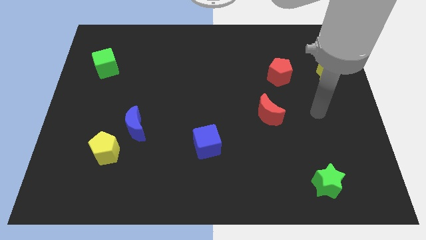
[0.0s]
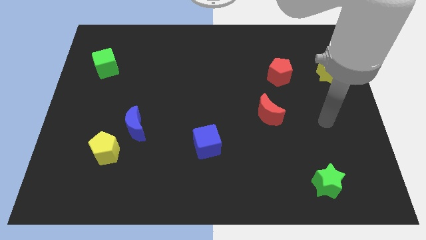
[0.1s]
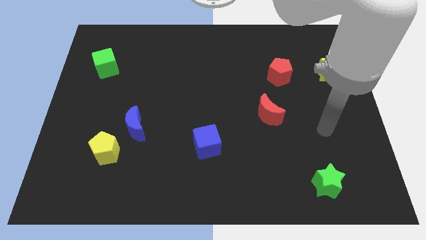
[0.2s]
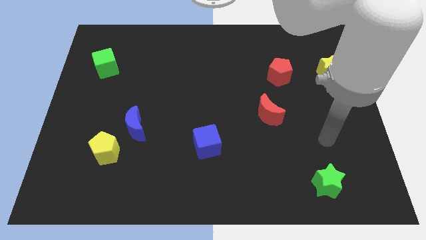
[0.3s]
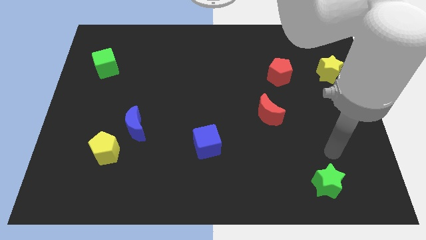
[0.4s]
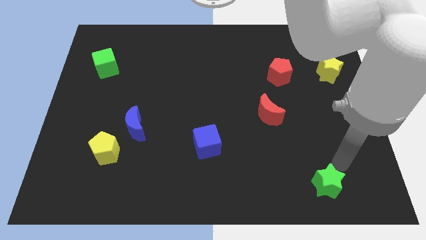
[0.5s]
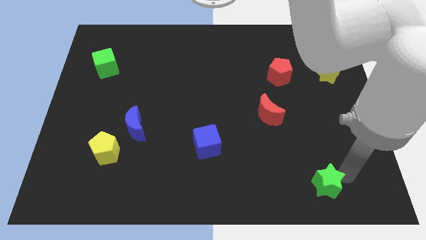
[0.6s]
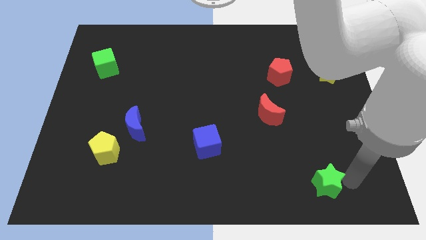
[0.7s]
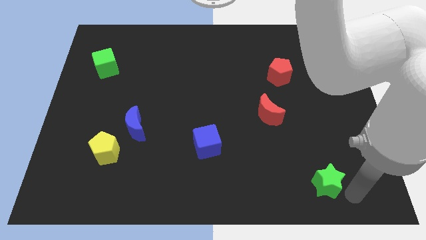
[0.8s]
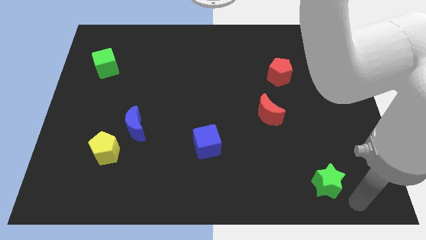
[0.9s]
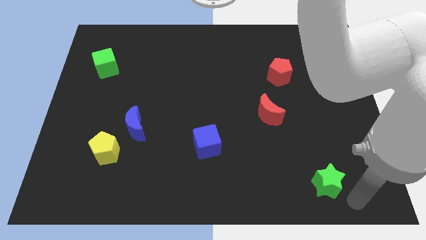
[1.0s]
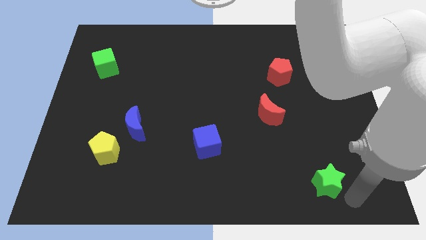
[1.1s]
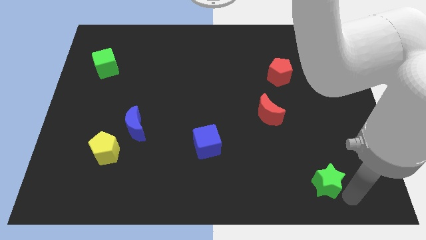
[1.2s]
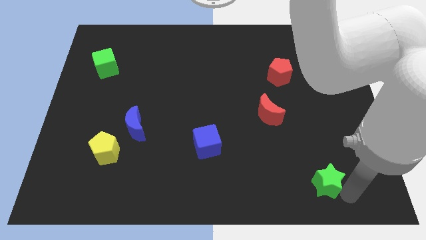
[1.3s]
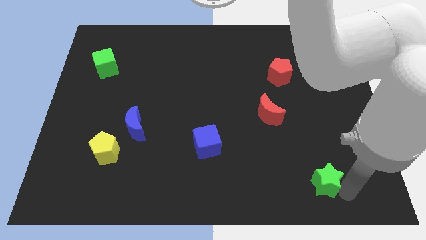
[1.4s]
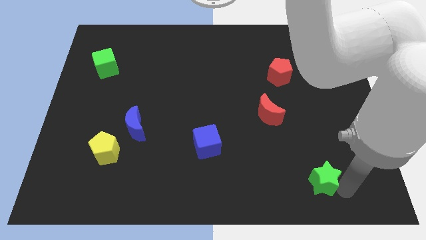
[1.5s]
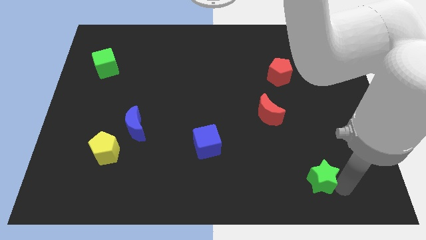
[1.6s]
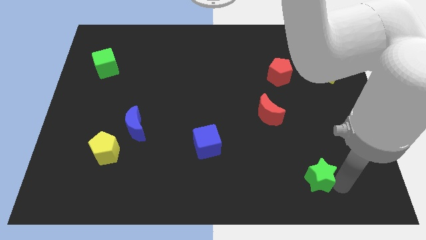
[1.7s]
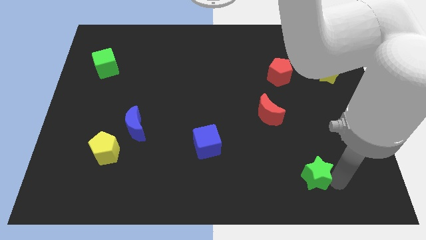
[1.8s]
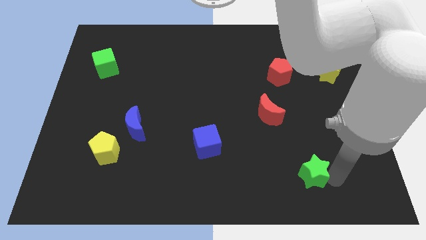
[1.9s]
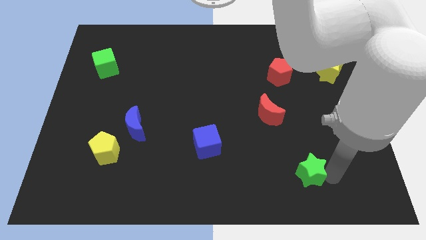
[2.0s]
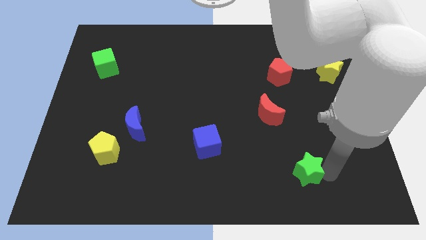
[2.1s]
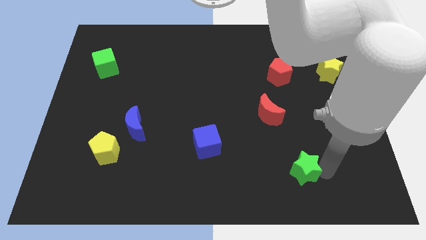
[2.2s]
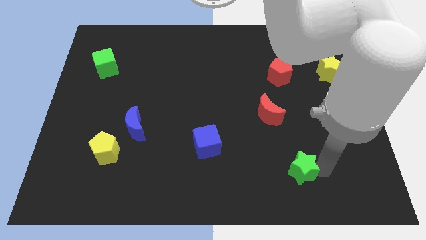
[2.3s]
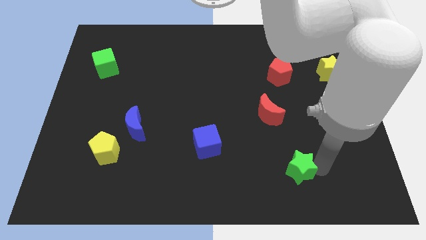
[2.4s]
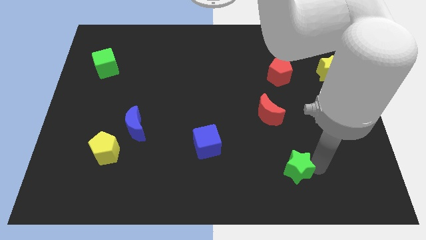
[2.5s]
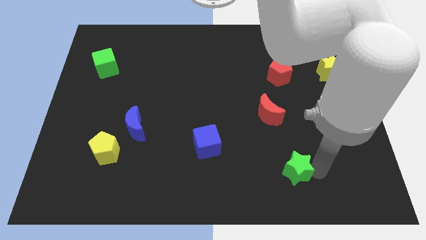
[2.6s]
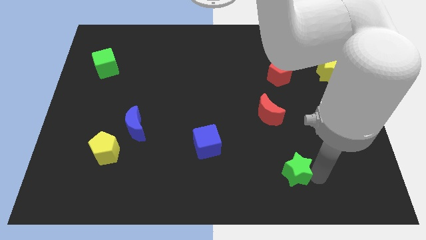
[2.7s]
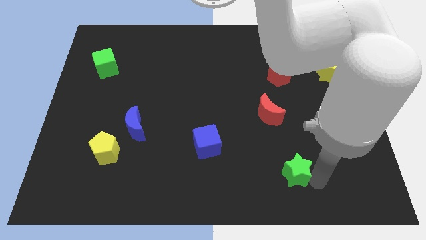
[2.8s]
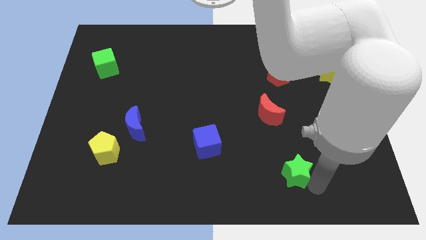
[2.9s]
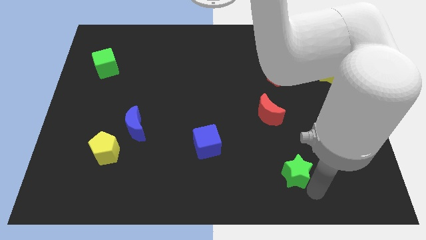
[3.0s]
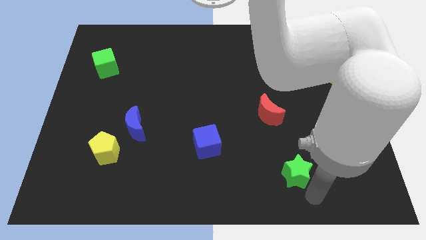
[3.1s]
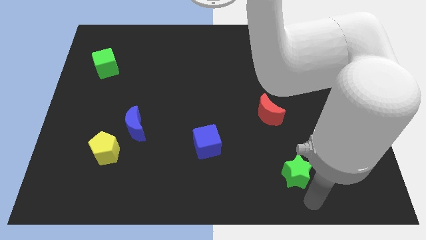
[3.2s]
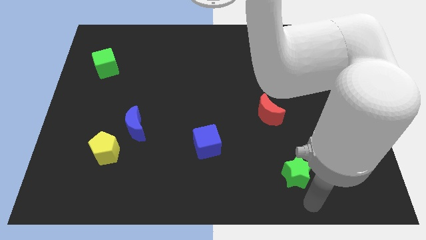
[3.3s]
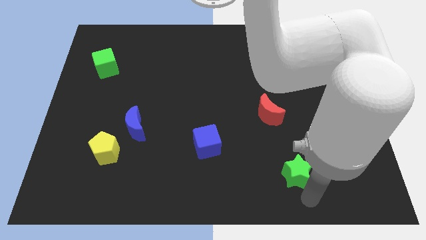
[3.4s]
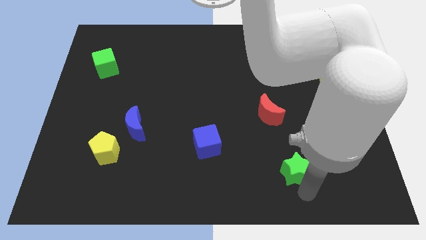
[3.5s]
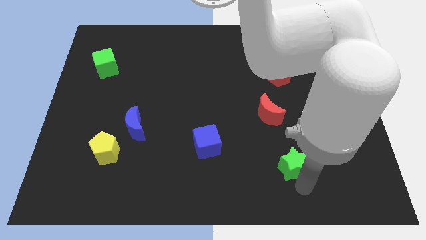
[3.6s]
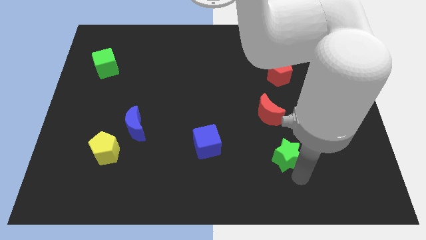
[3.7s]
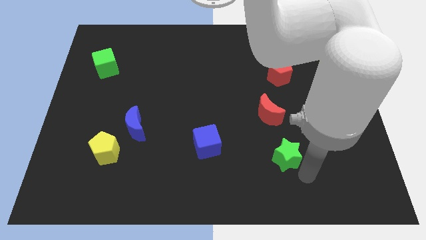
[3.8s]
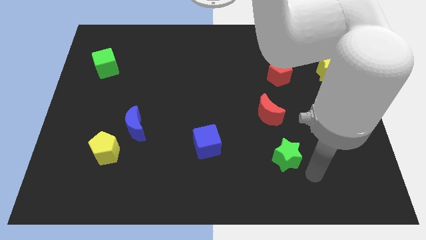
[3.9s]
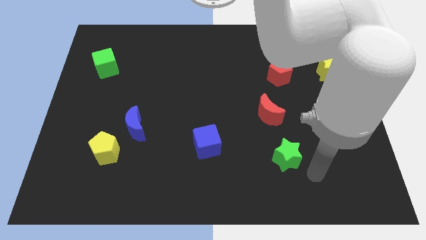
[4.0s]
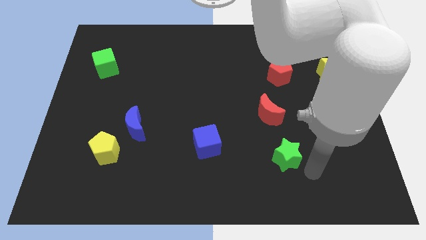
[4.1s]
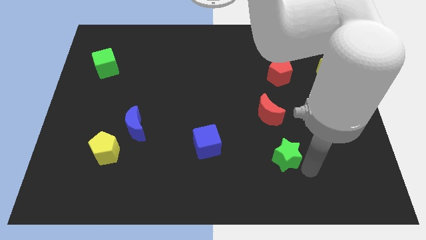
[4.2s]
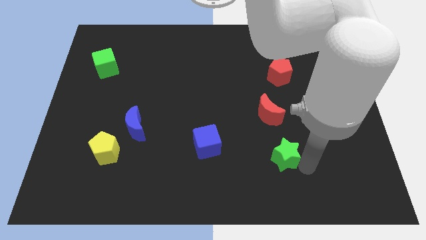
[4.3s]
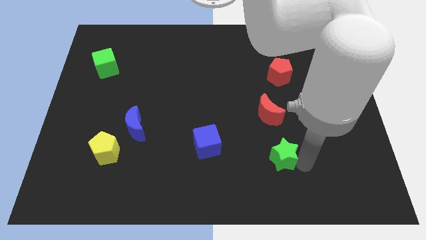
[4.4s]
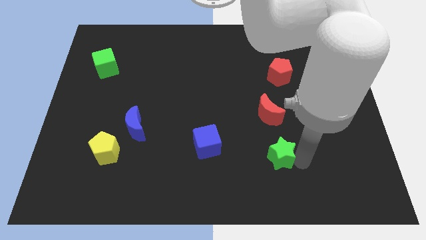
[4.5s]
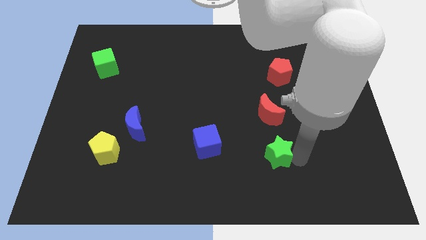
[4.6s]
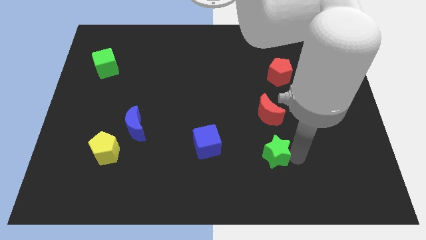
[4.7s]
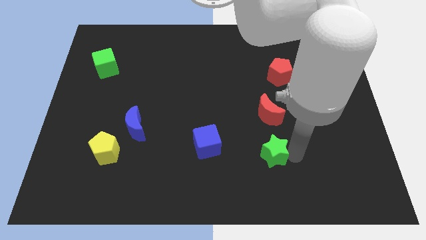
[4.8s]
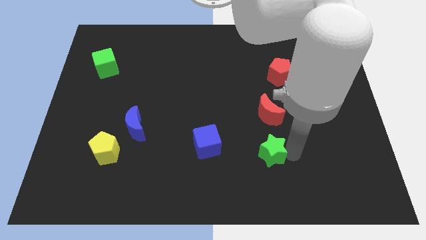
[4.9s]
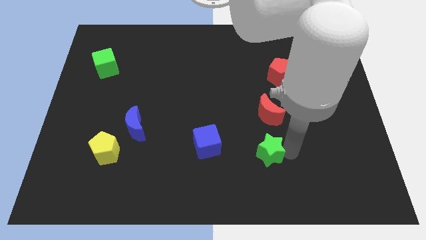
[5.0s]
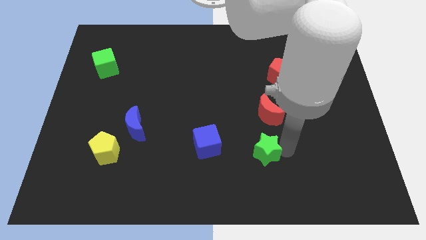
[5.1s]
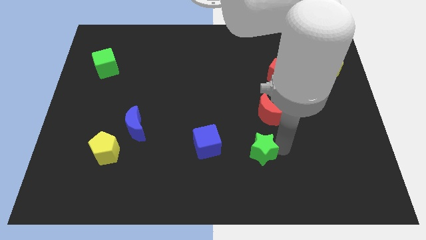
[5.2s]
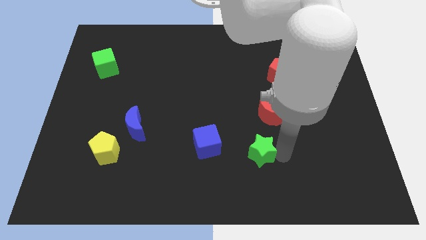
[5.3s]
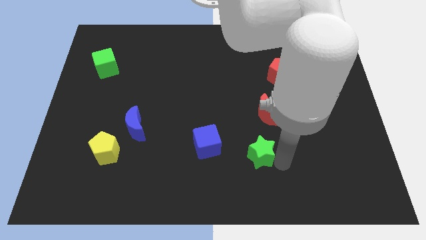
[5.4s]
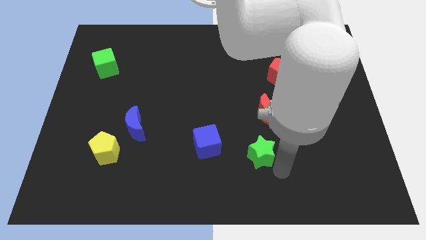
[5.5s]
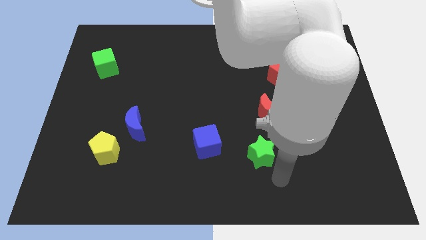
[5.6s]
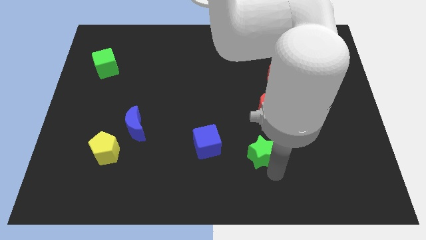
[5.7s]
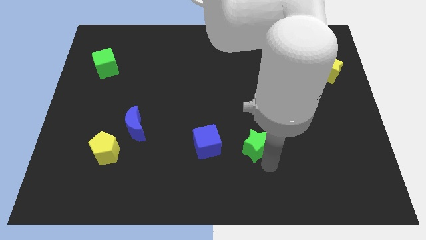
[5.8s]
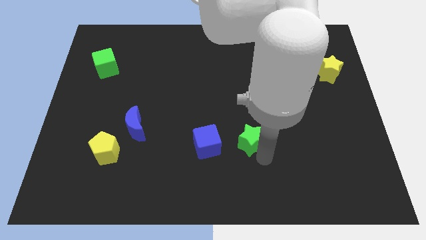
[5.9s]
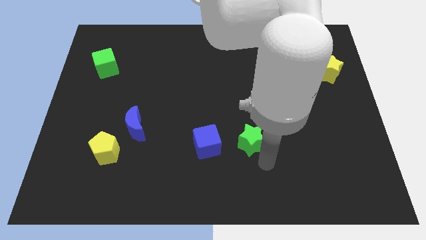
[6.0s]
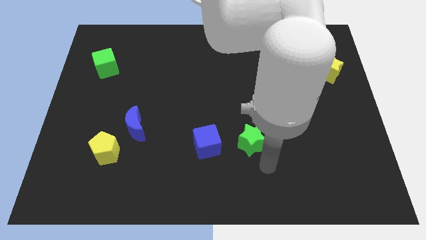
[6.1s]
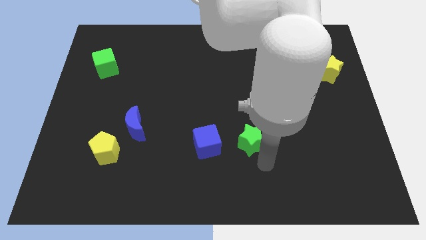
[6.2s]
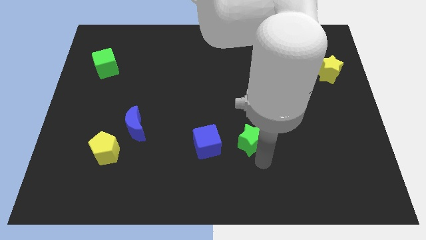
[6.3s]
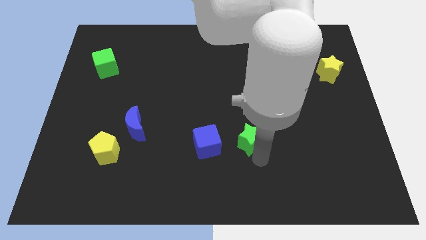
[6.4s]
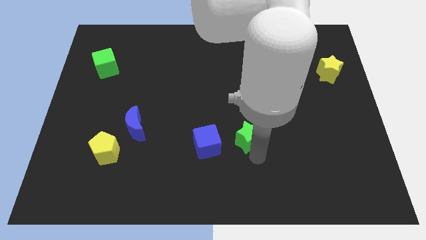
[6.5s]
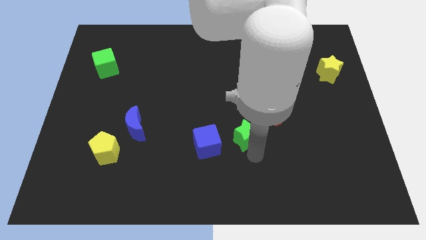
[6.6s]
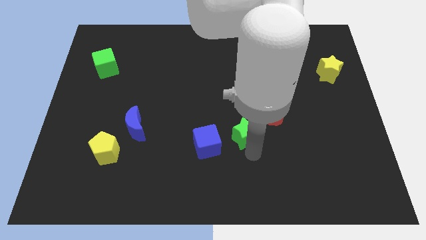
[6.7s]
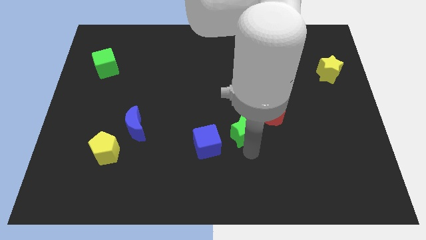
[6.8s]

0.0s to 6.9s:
move the green star up and to the left diagonally

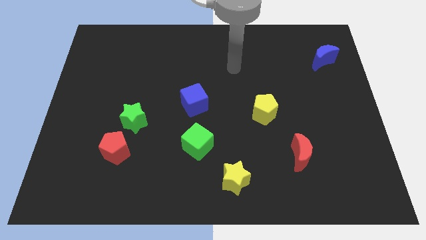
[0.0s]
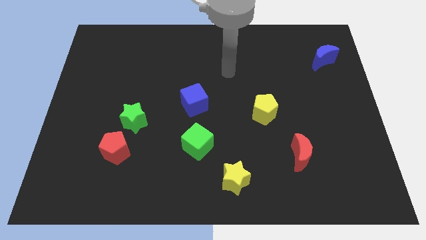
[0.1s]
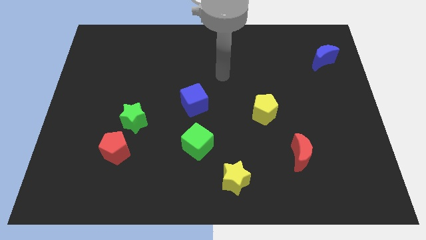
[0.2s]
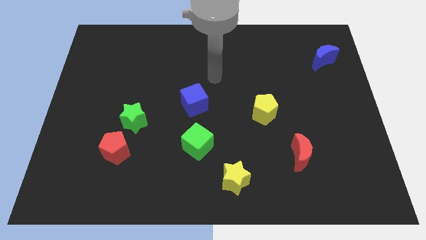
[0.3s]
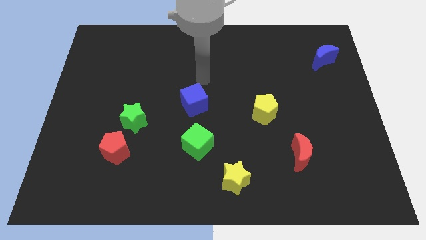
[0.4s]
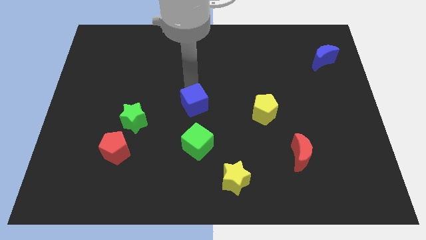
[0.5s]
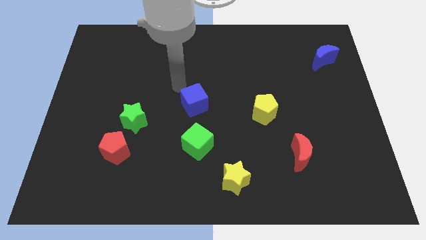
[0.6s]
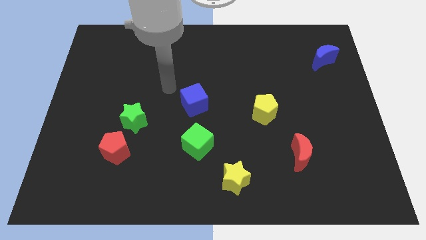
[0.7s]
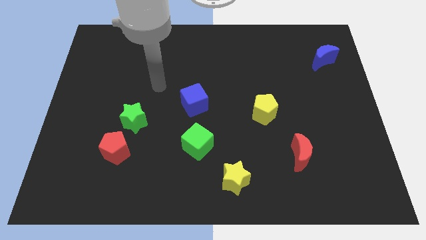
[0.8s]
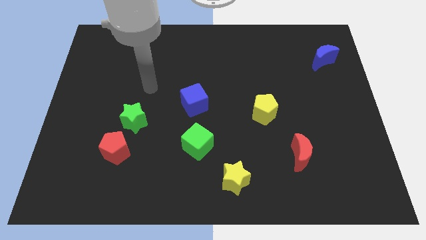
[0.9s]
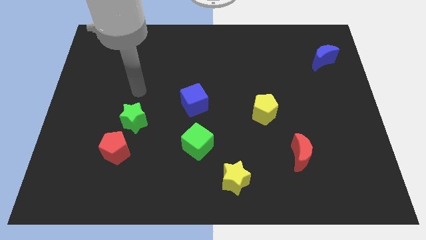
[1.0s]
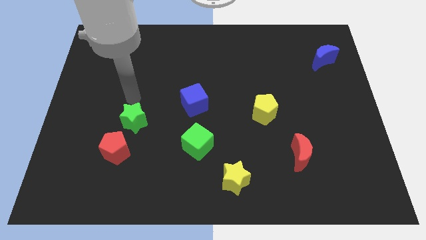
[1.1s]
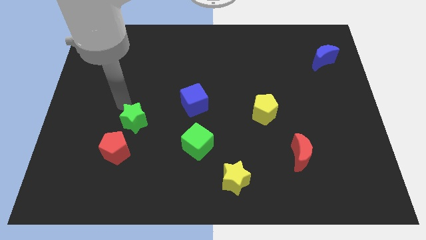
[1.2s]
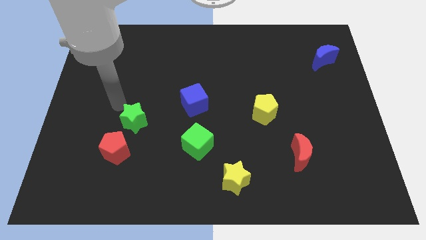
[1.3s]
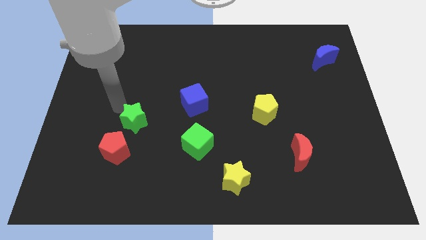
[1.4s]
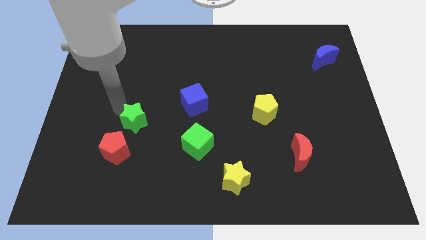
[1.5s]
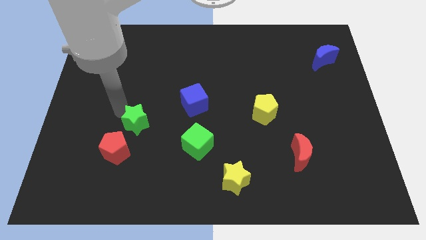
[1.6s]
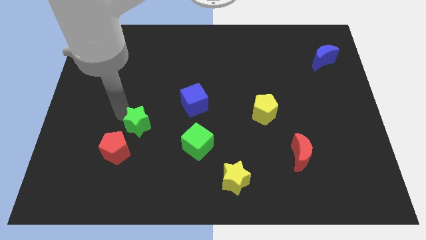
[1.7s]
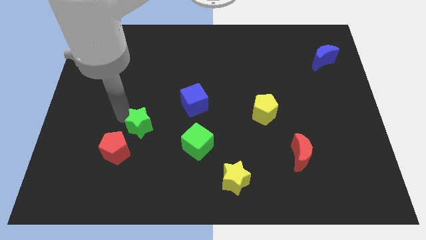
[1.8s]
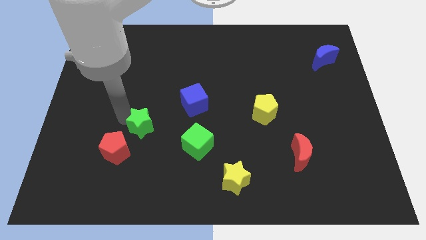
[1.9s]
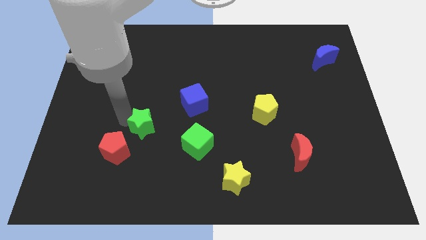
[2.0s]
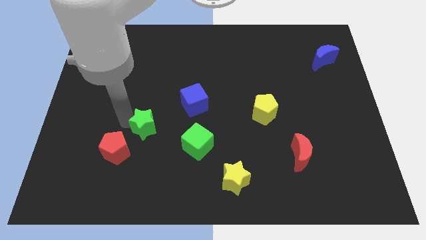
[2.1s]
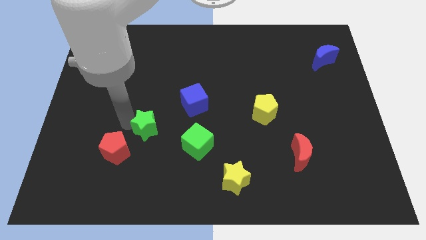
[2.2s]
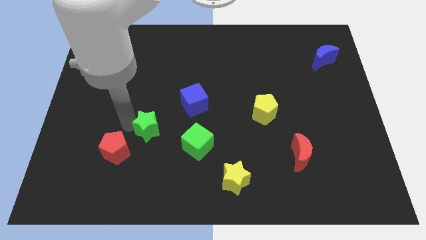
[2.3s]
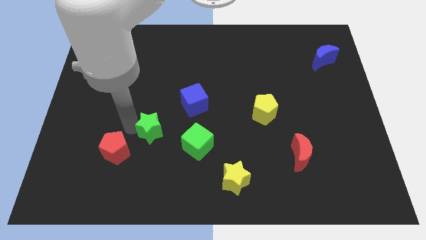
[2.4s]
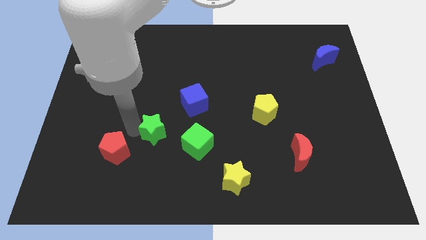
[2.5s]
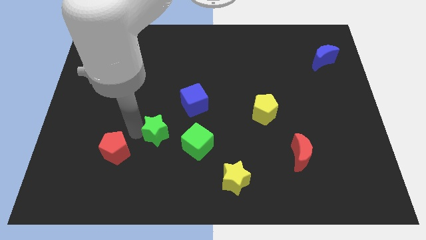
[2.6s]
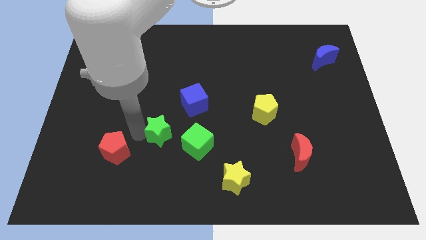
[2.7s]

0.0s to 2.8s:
slightly move the green star diagonally downwards and right
